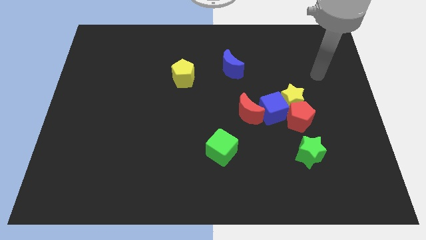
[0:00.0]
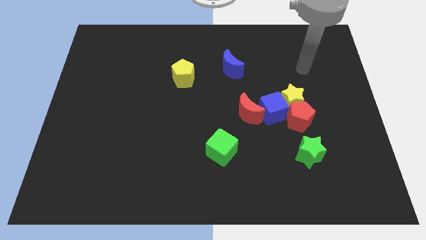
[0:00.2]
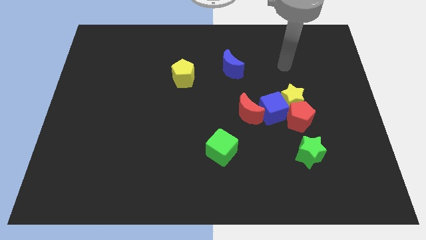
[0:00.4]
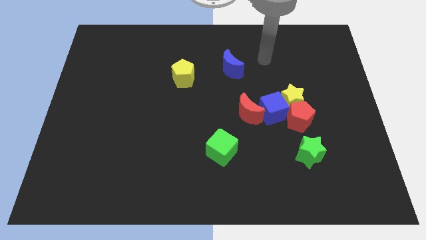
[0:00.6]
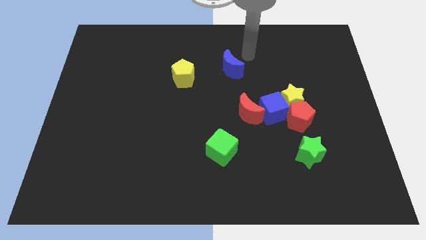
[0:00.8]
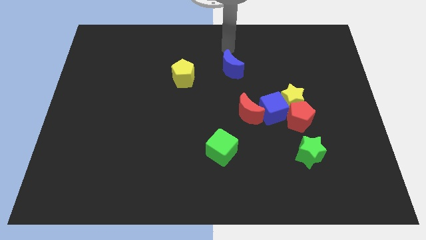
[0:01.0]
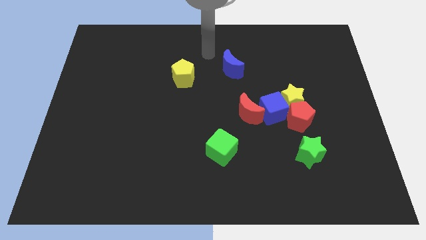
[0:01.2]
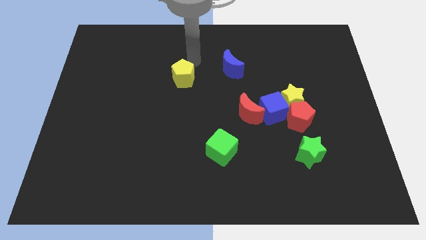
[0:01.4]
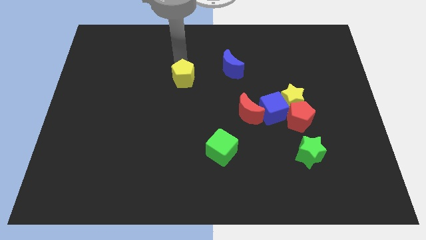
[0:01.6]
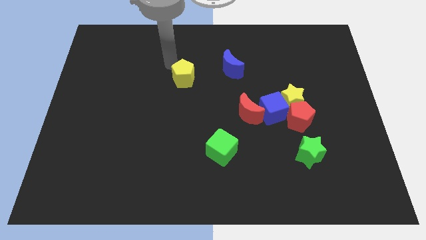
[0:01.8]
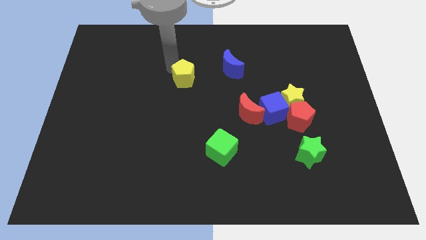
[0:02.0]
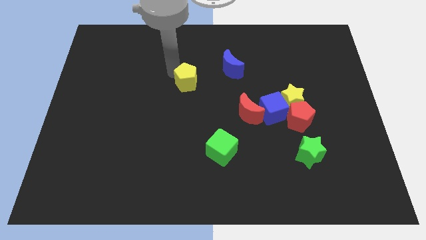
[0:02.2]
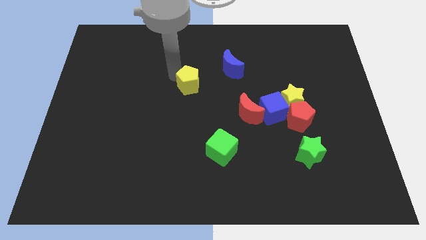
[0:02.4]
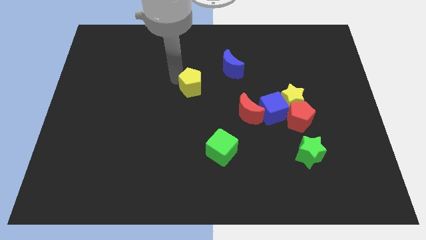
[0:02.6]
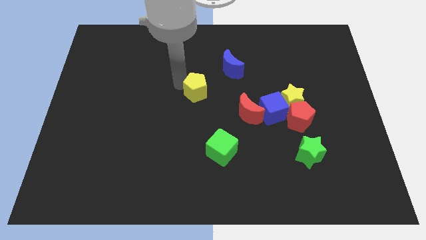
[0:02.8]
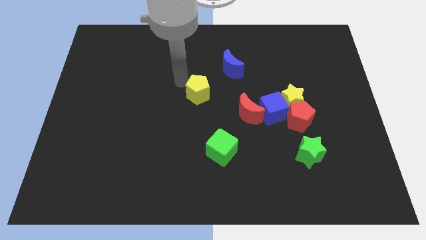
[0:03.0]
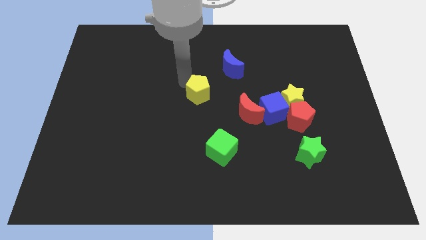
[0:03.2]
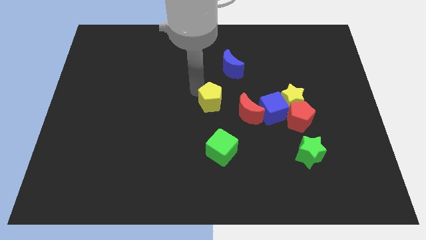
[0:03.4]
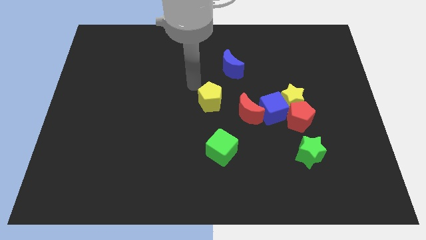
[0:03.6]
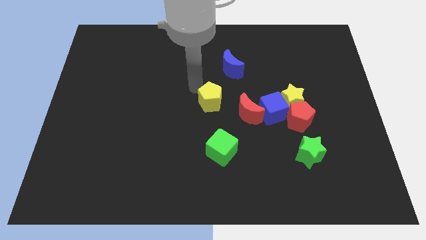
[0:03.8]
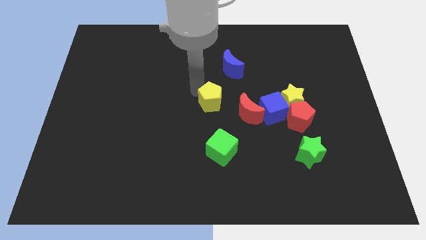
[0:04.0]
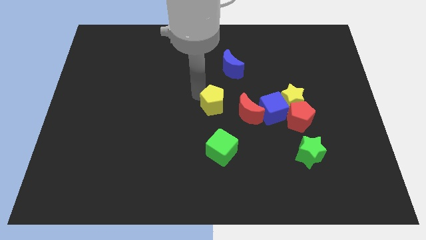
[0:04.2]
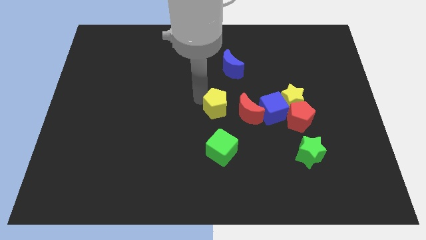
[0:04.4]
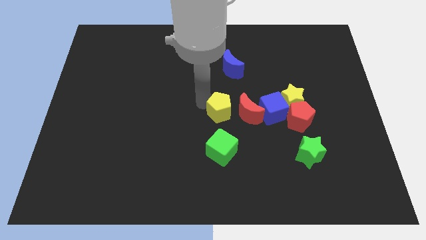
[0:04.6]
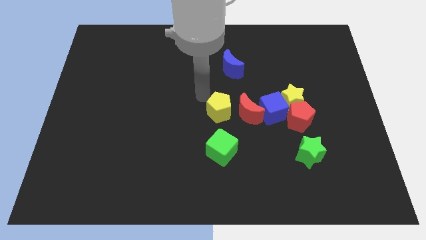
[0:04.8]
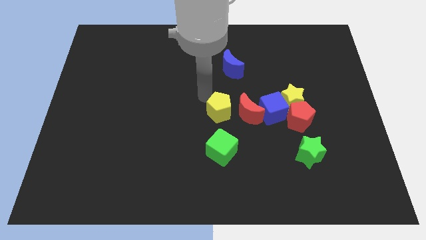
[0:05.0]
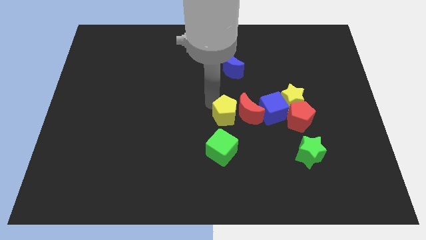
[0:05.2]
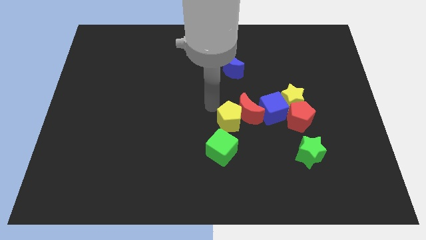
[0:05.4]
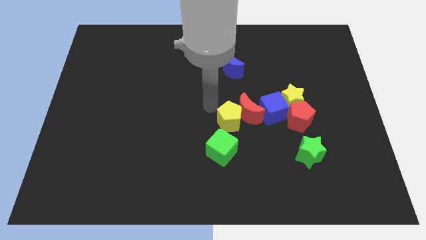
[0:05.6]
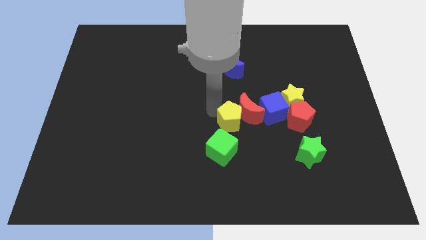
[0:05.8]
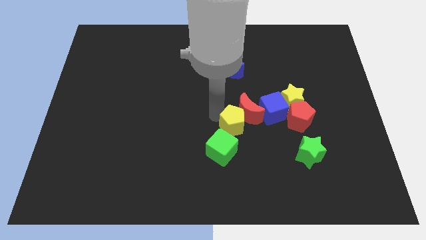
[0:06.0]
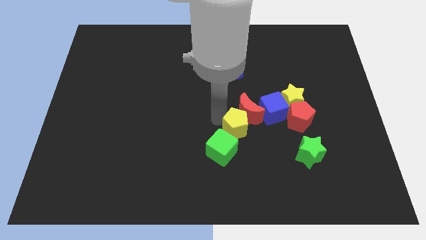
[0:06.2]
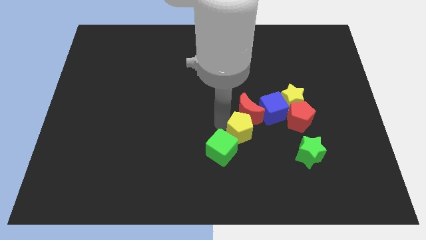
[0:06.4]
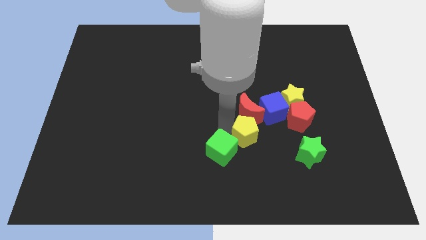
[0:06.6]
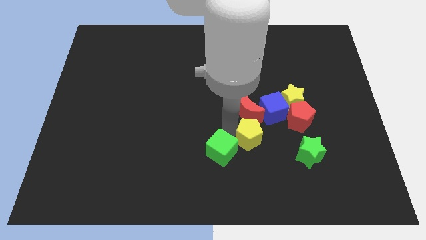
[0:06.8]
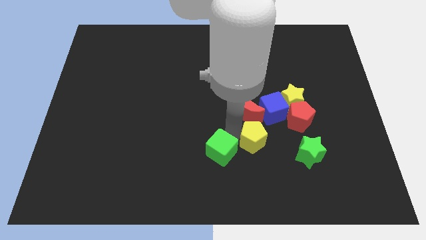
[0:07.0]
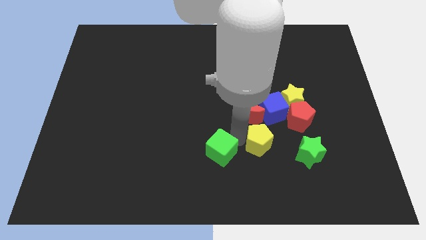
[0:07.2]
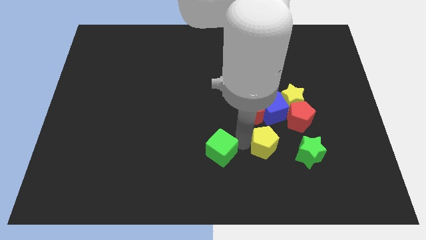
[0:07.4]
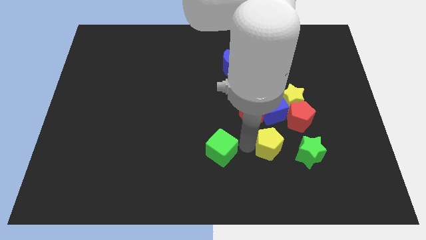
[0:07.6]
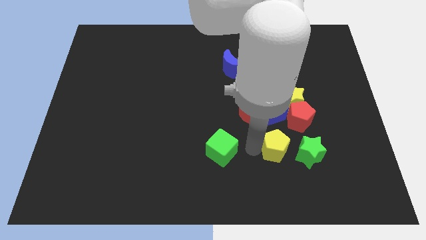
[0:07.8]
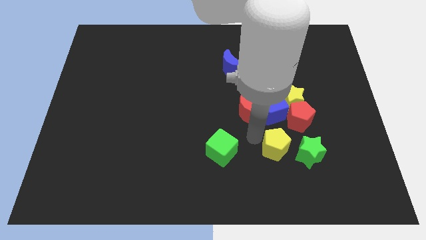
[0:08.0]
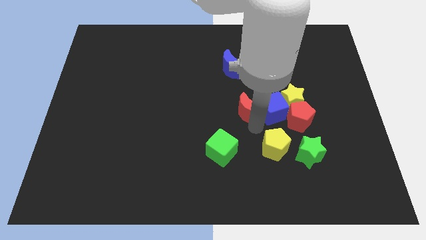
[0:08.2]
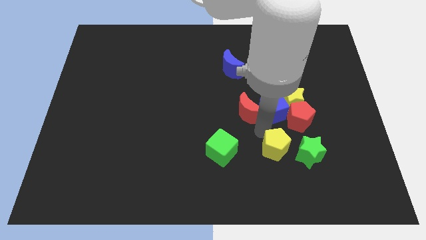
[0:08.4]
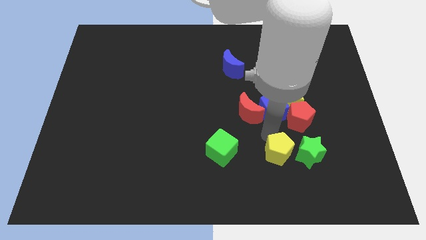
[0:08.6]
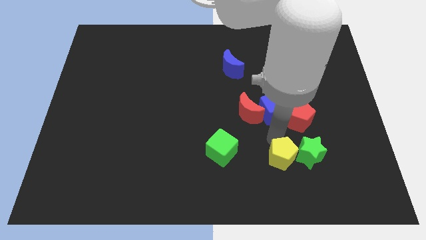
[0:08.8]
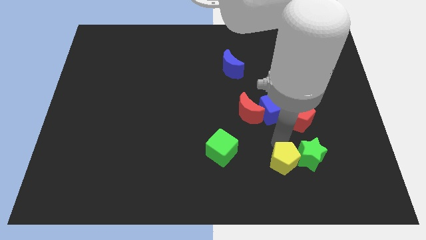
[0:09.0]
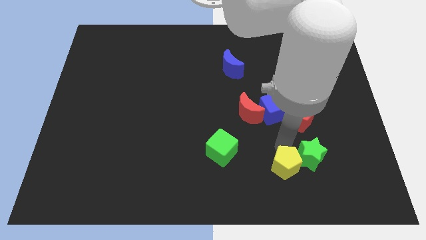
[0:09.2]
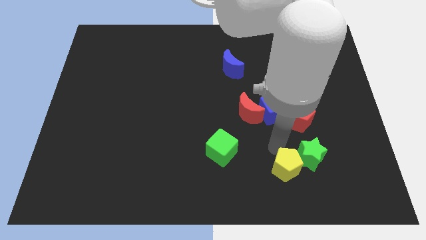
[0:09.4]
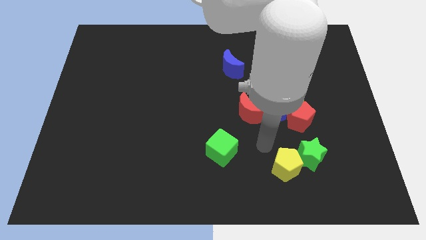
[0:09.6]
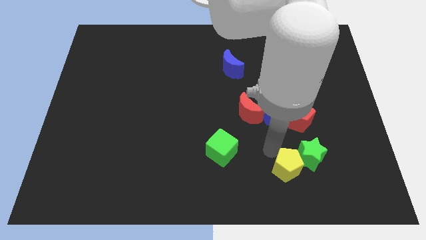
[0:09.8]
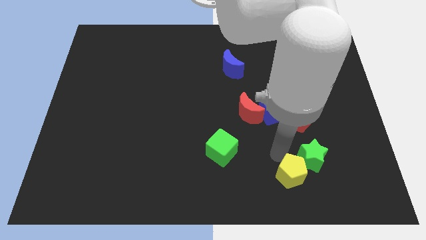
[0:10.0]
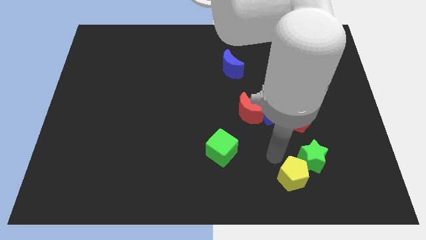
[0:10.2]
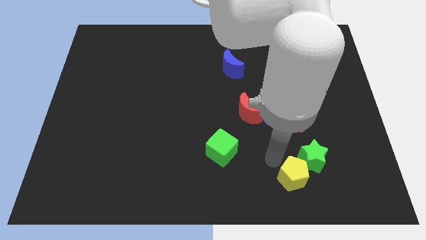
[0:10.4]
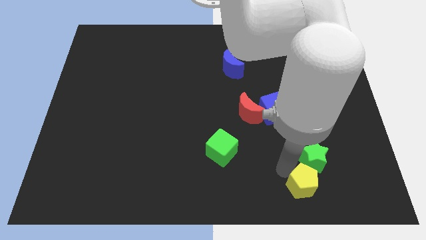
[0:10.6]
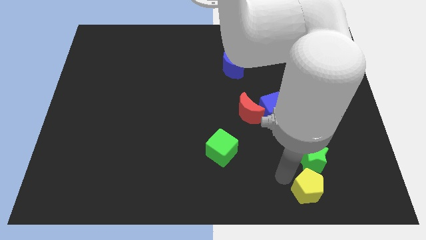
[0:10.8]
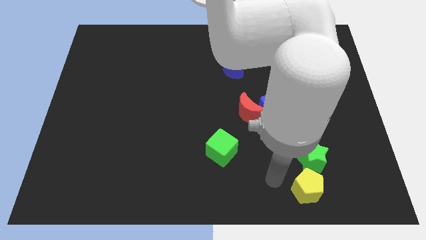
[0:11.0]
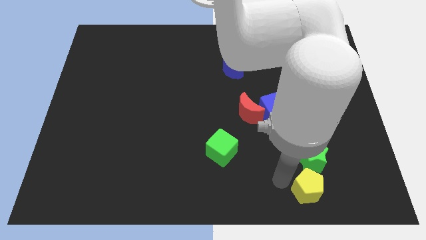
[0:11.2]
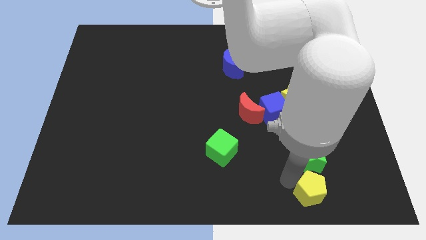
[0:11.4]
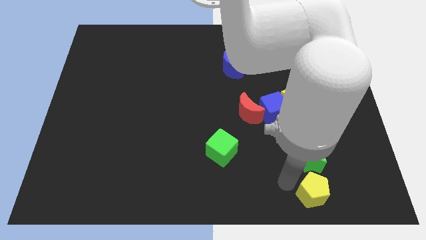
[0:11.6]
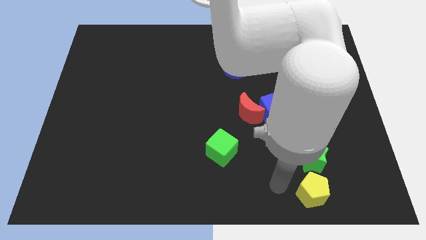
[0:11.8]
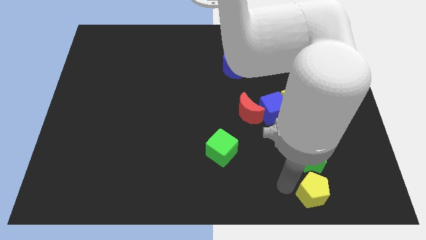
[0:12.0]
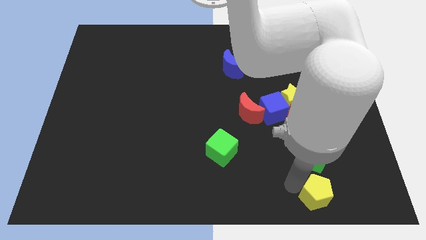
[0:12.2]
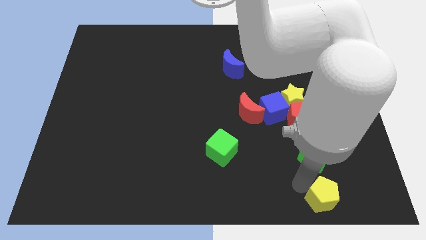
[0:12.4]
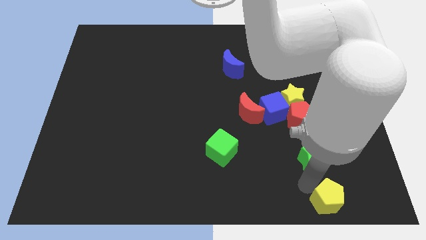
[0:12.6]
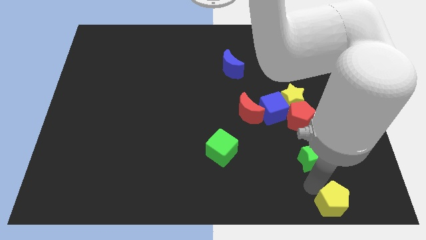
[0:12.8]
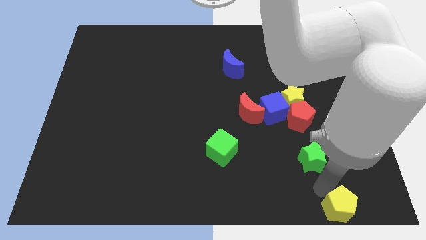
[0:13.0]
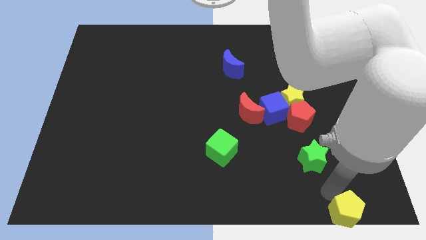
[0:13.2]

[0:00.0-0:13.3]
move the yellow pentagon to the bottom right of the board

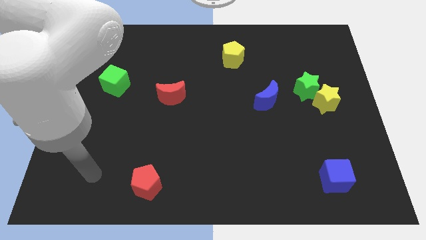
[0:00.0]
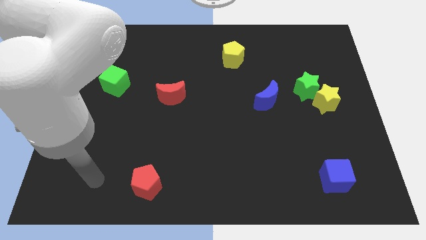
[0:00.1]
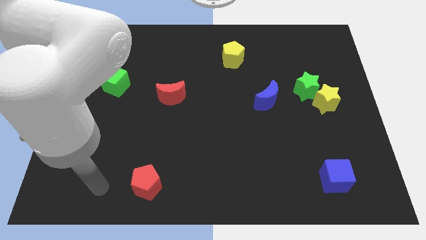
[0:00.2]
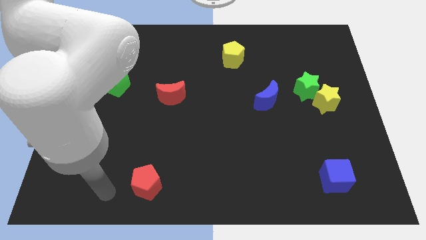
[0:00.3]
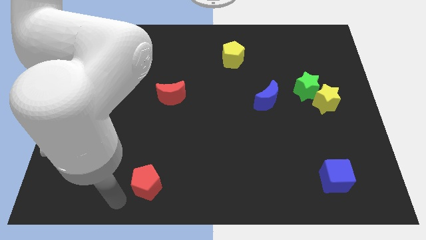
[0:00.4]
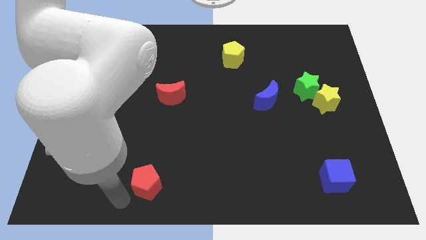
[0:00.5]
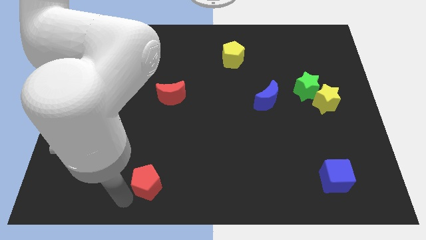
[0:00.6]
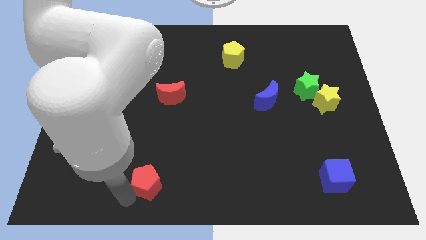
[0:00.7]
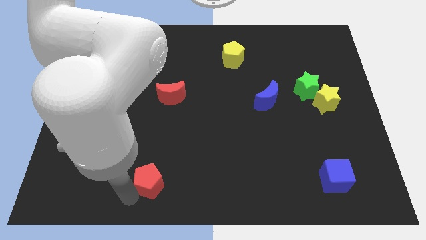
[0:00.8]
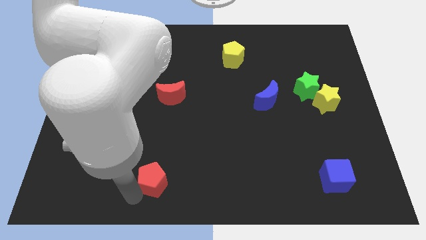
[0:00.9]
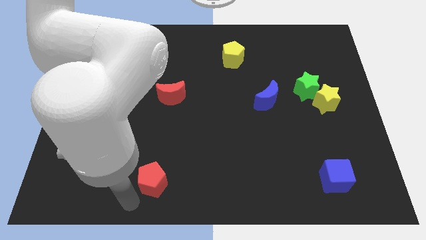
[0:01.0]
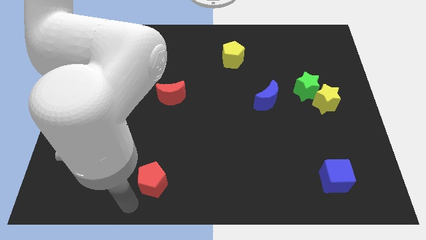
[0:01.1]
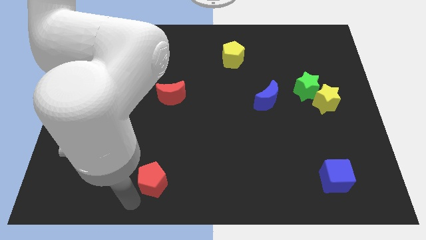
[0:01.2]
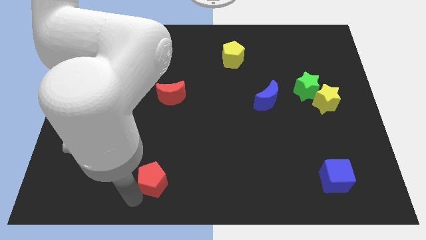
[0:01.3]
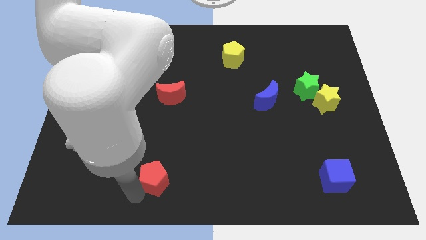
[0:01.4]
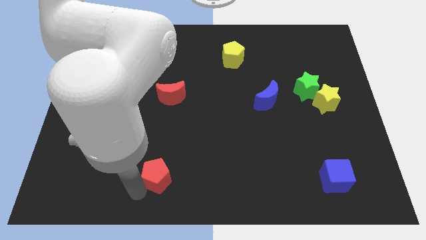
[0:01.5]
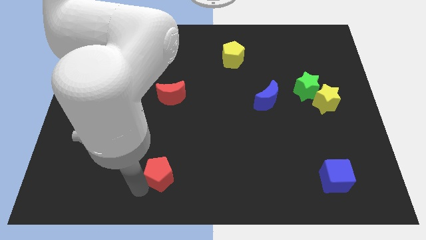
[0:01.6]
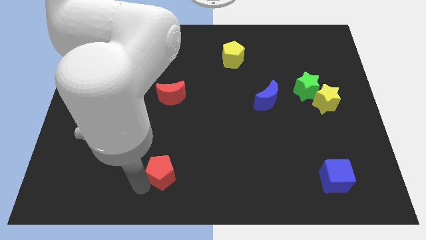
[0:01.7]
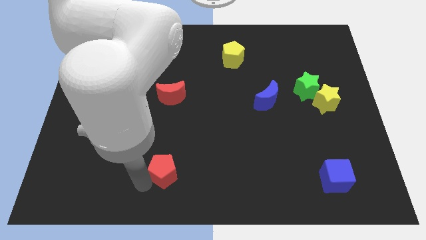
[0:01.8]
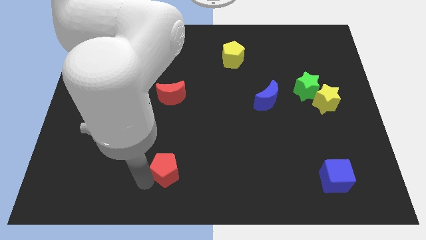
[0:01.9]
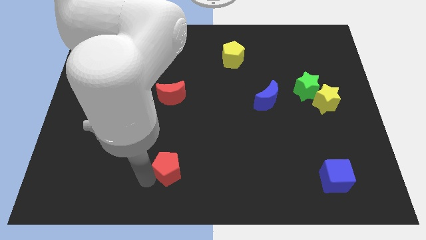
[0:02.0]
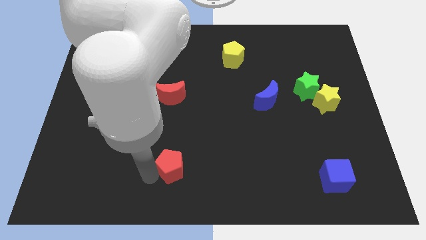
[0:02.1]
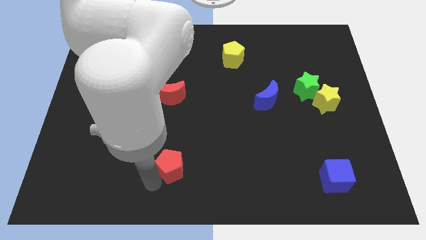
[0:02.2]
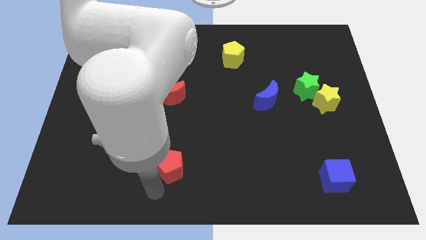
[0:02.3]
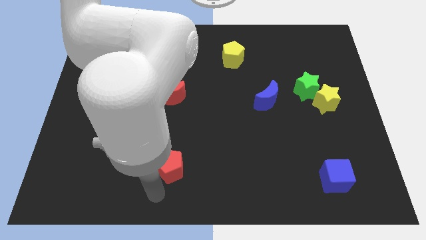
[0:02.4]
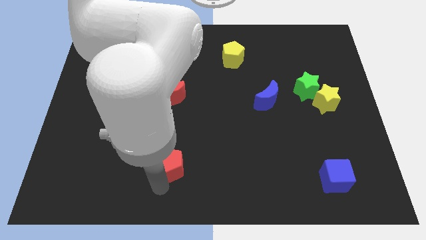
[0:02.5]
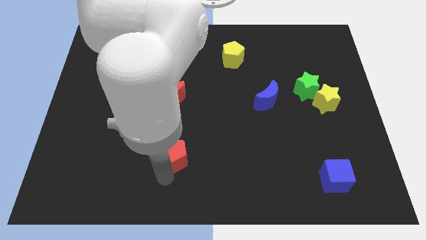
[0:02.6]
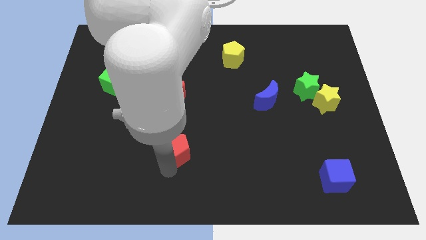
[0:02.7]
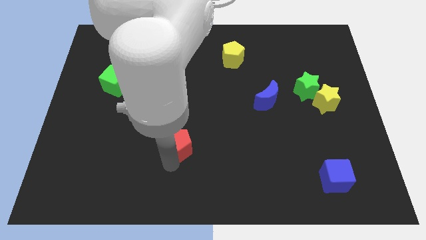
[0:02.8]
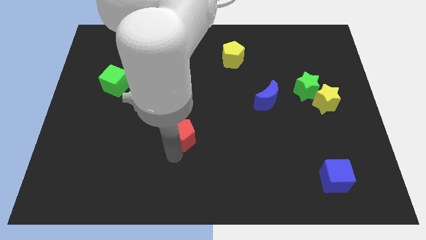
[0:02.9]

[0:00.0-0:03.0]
put the red pentagon to the center of the board
